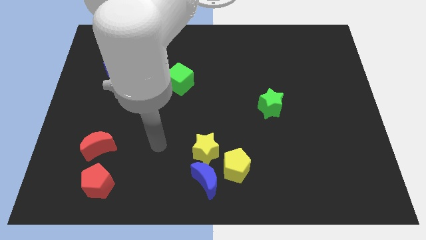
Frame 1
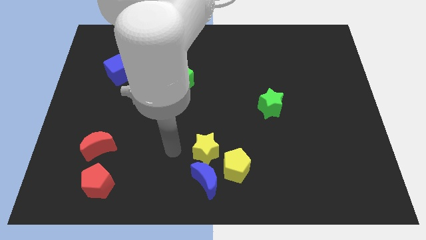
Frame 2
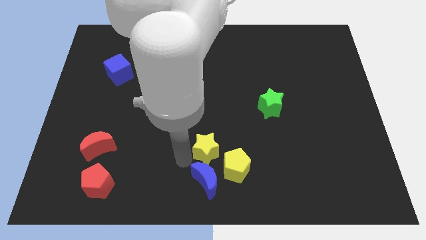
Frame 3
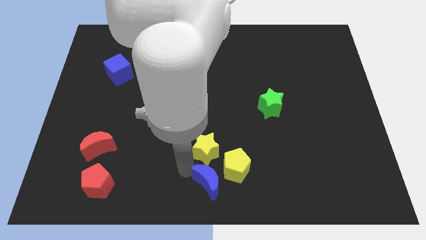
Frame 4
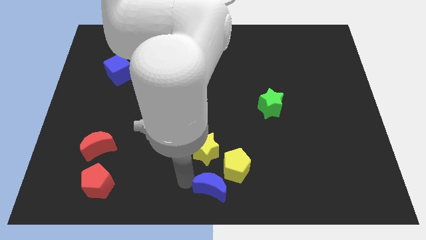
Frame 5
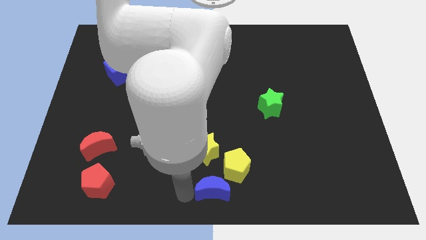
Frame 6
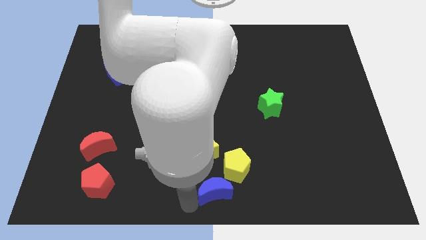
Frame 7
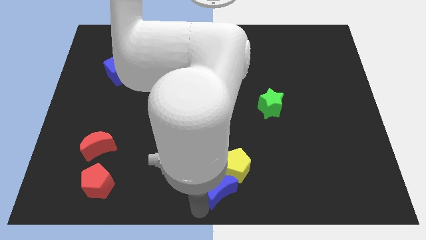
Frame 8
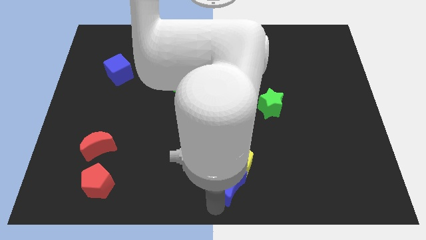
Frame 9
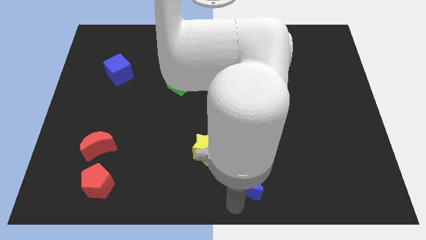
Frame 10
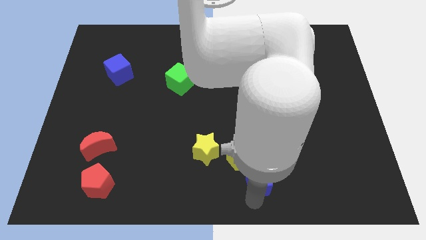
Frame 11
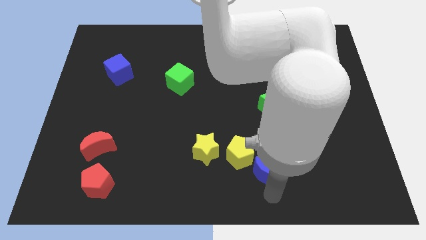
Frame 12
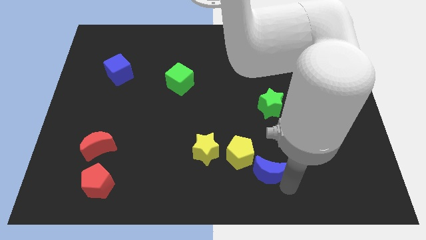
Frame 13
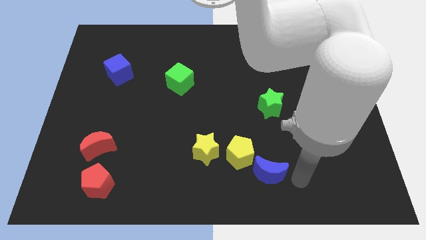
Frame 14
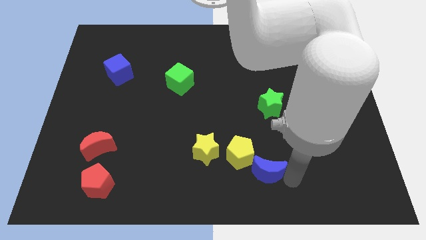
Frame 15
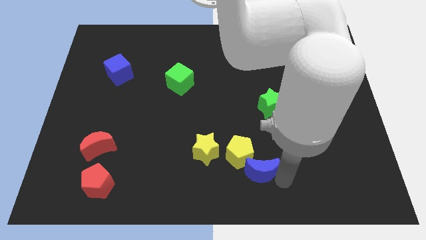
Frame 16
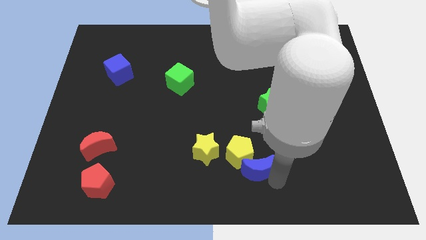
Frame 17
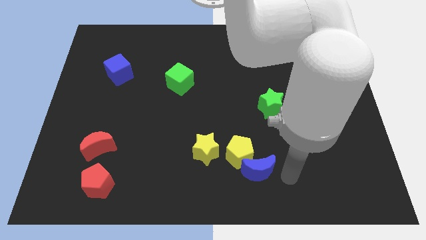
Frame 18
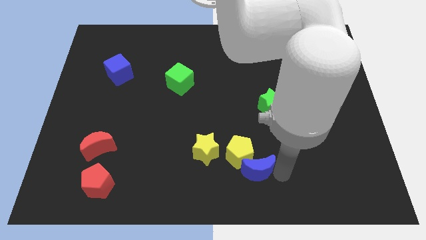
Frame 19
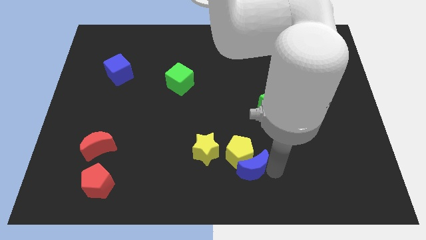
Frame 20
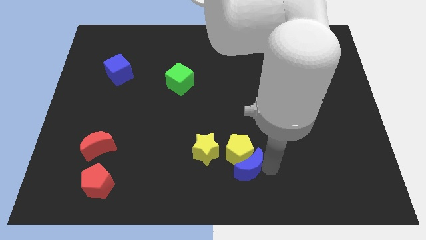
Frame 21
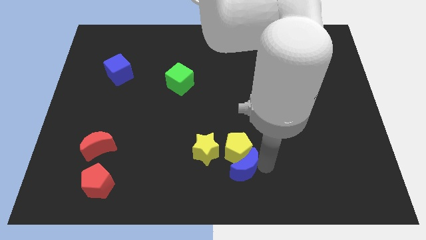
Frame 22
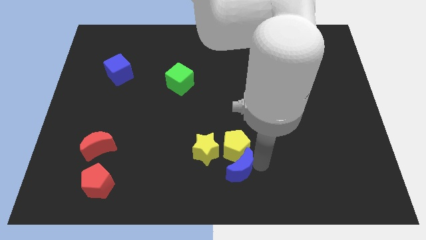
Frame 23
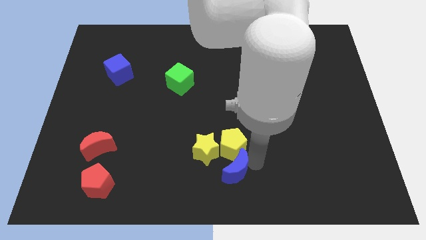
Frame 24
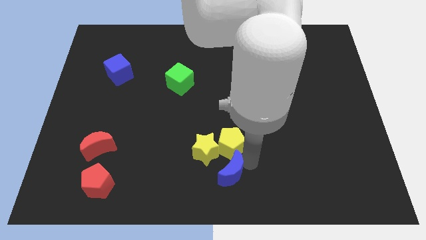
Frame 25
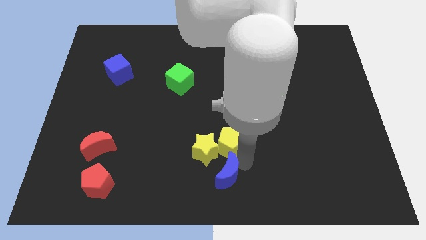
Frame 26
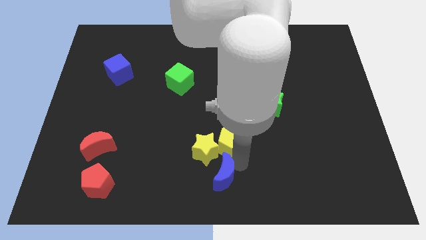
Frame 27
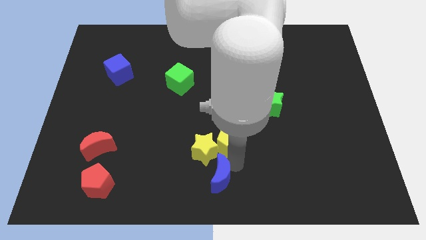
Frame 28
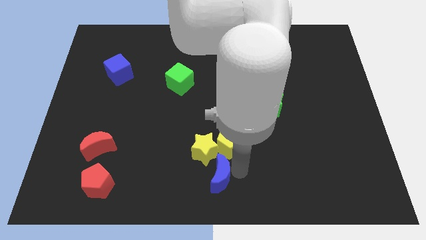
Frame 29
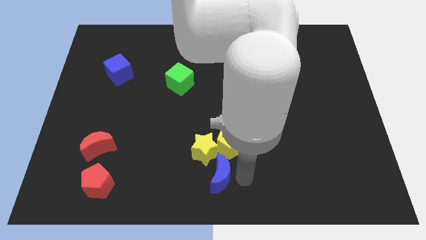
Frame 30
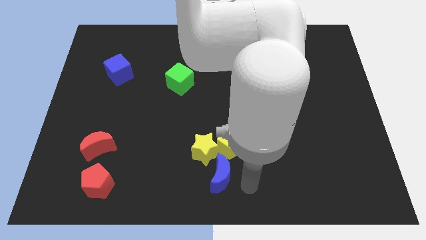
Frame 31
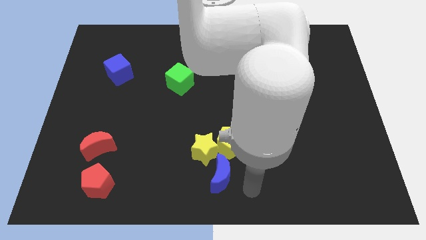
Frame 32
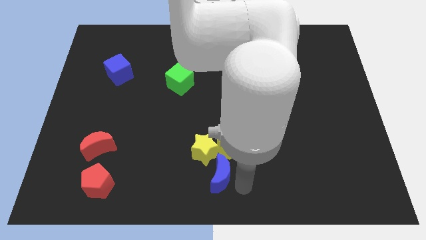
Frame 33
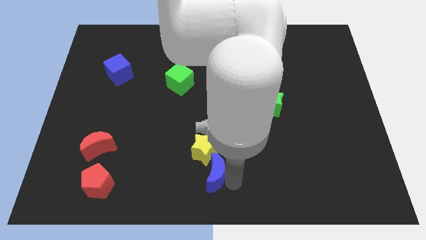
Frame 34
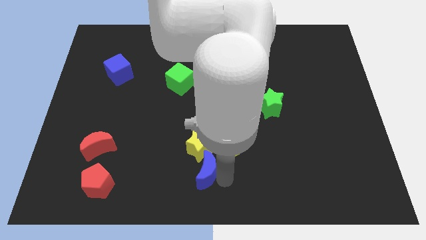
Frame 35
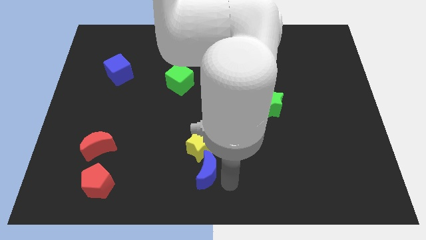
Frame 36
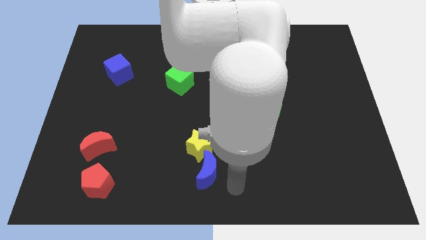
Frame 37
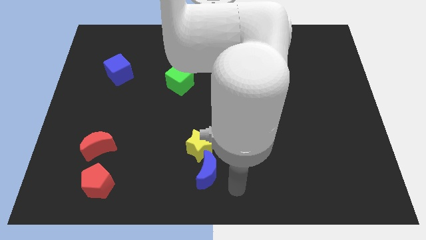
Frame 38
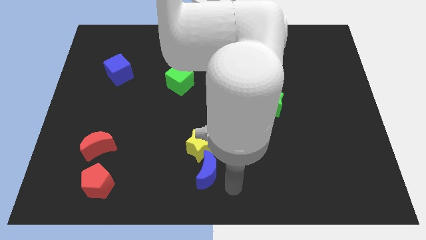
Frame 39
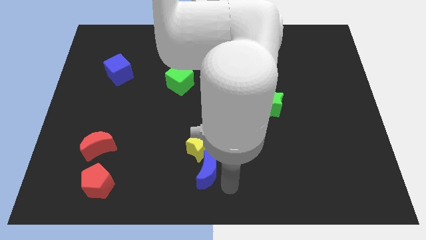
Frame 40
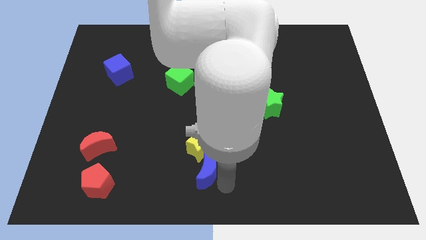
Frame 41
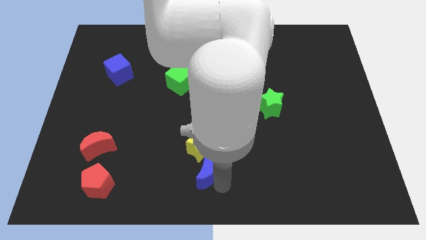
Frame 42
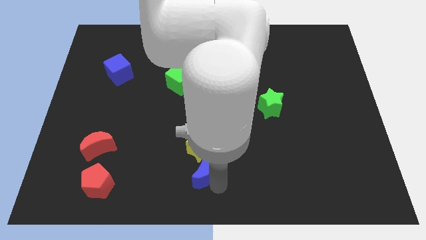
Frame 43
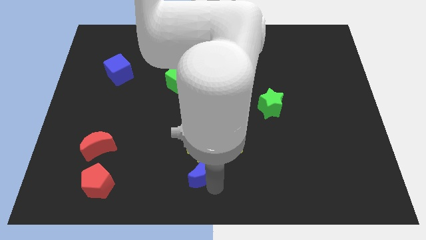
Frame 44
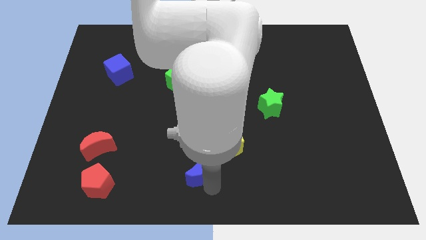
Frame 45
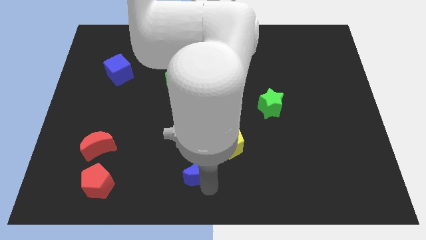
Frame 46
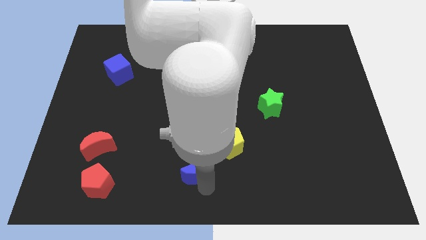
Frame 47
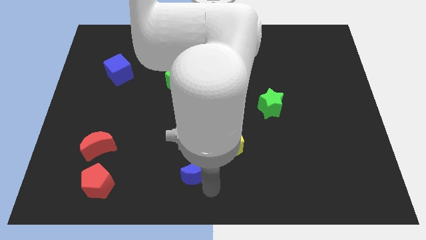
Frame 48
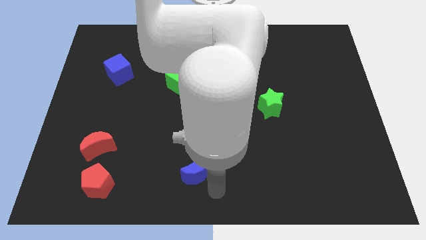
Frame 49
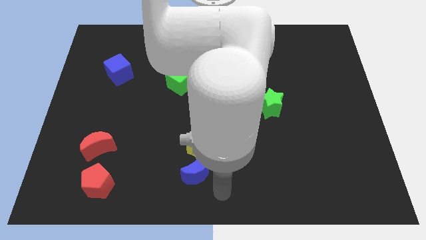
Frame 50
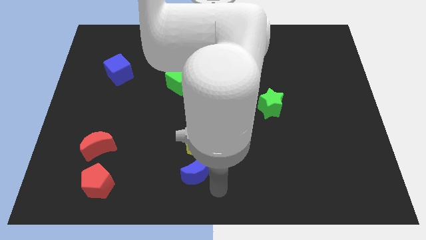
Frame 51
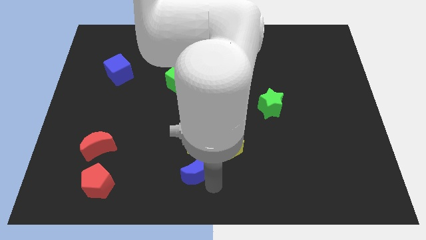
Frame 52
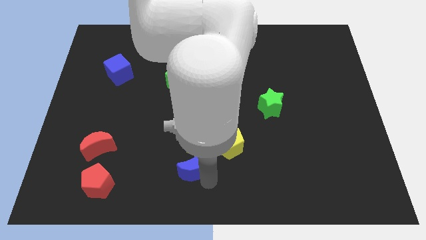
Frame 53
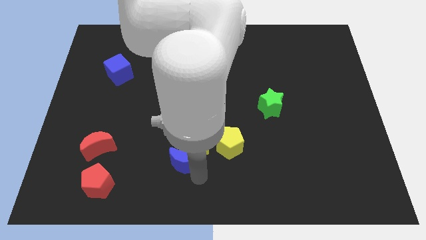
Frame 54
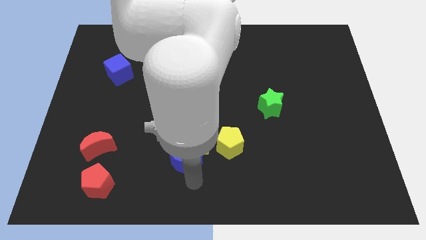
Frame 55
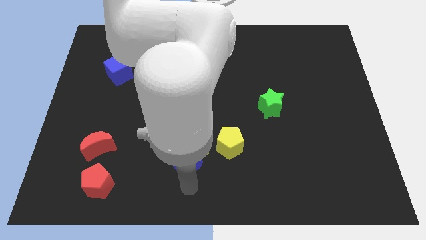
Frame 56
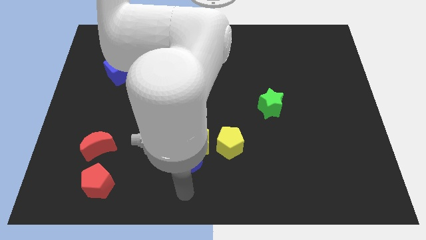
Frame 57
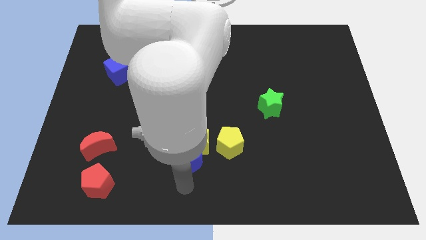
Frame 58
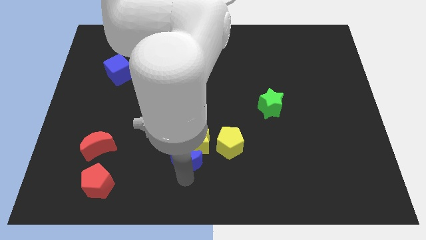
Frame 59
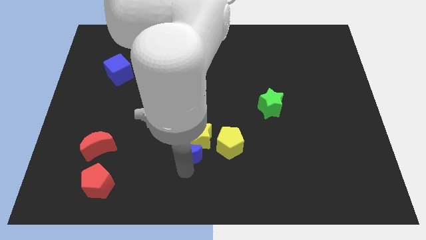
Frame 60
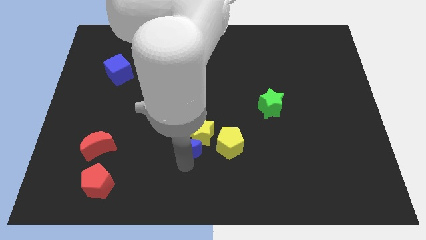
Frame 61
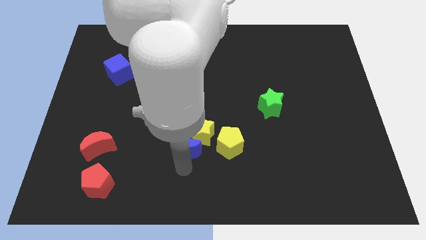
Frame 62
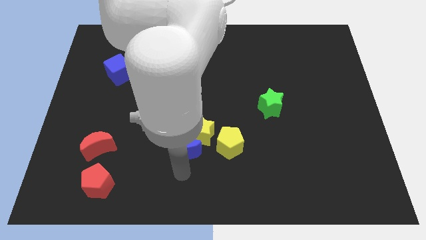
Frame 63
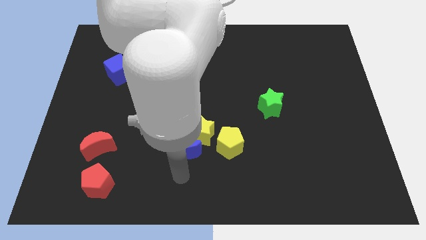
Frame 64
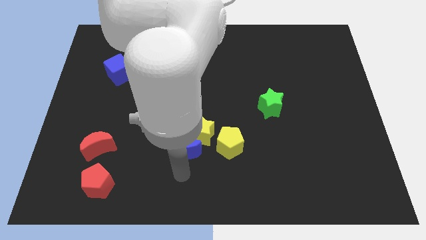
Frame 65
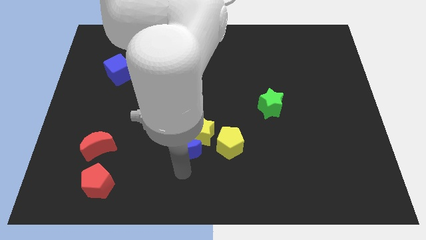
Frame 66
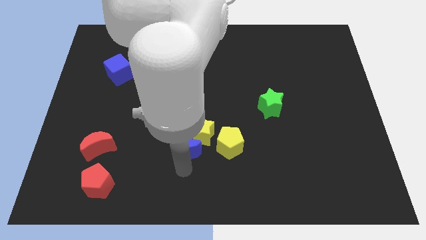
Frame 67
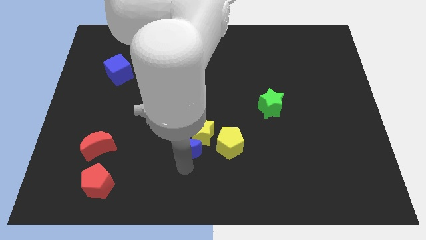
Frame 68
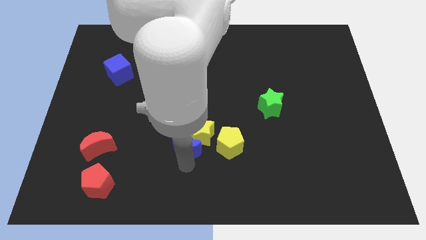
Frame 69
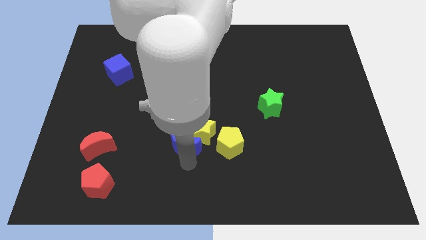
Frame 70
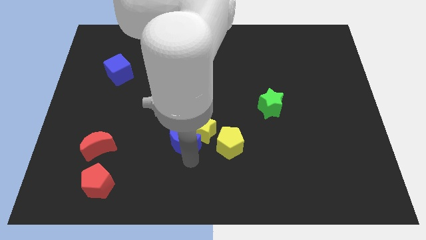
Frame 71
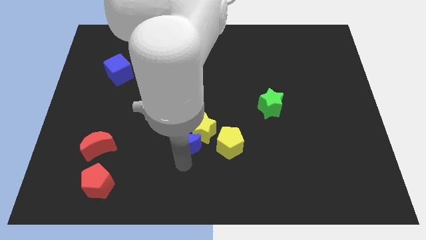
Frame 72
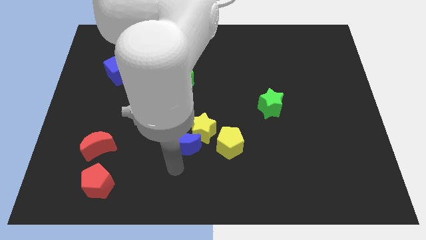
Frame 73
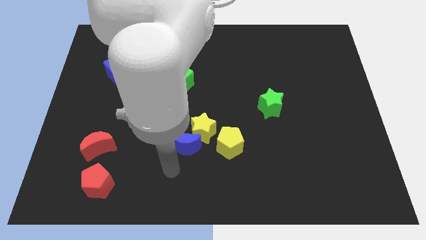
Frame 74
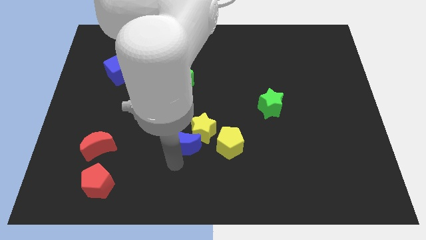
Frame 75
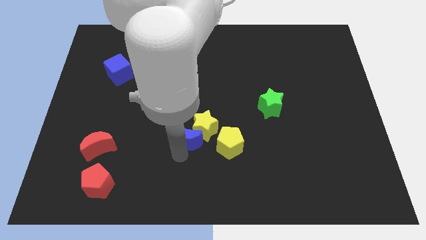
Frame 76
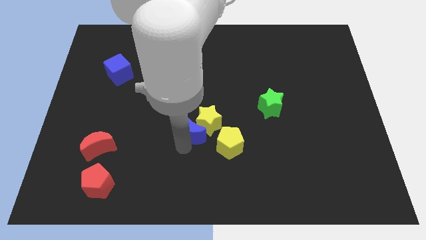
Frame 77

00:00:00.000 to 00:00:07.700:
slide the blue moon to the center of the board

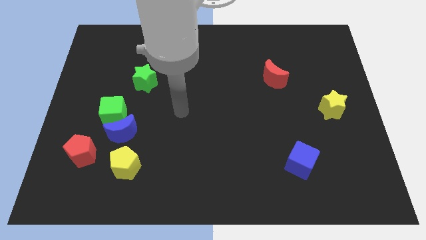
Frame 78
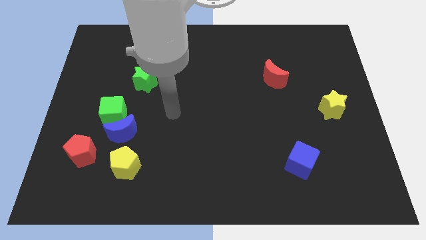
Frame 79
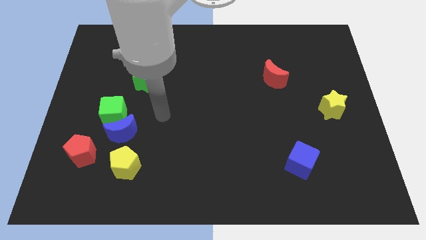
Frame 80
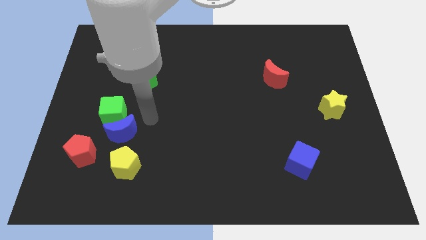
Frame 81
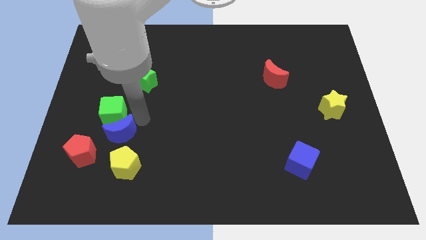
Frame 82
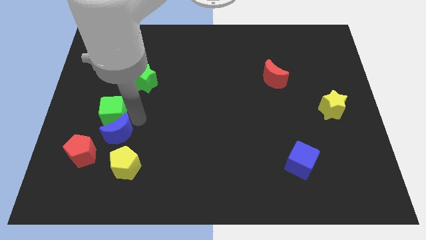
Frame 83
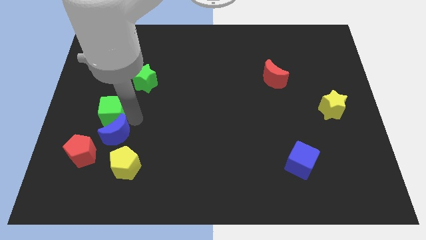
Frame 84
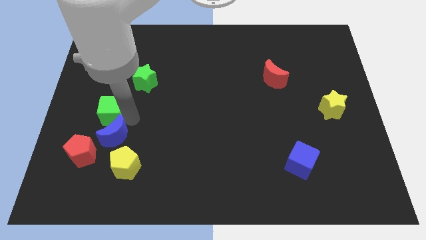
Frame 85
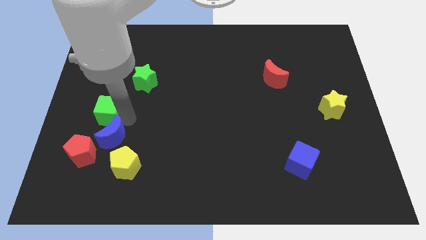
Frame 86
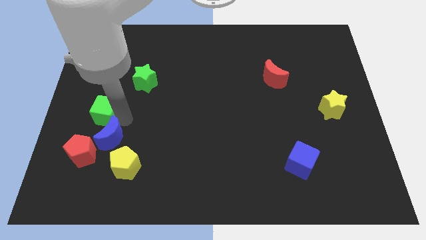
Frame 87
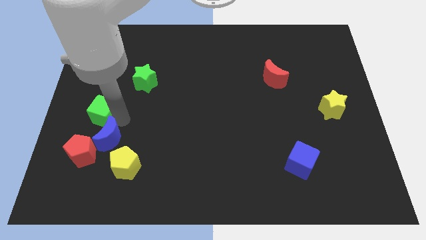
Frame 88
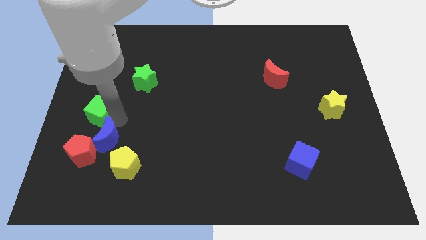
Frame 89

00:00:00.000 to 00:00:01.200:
slide the green cube to the left side of the board
